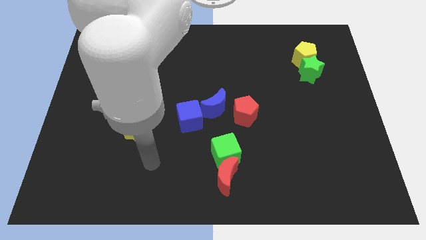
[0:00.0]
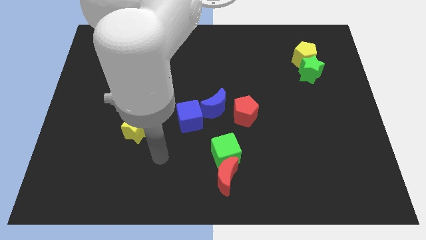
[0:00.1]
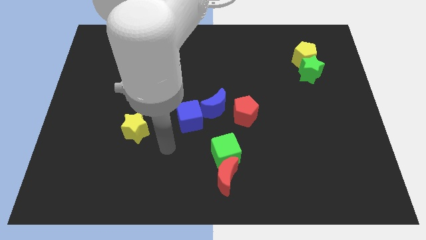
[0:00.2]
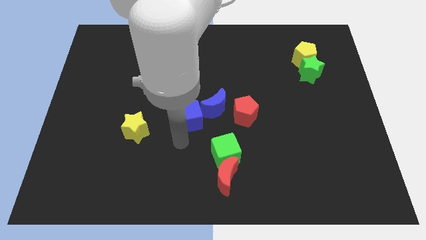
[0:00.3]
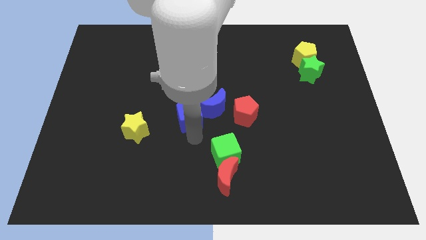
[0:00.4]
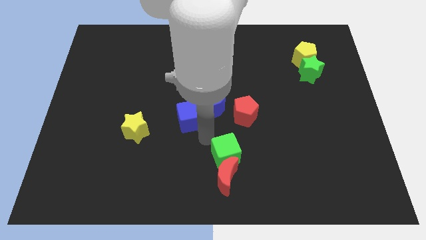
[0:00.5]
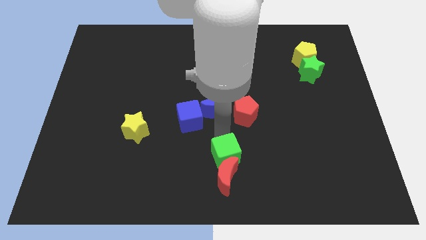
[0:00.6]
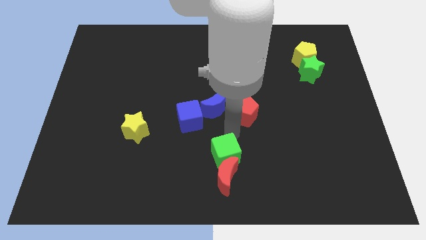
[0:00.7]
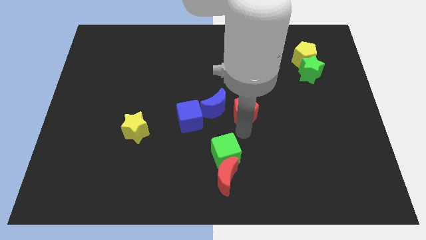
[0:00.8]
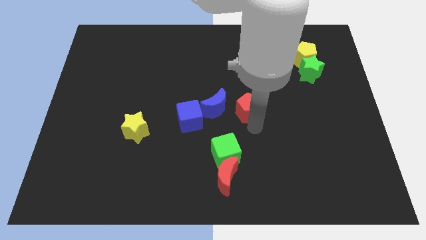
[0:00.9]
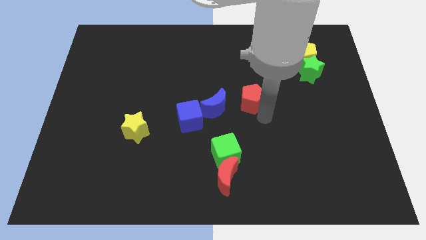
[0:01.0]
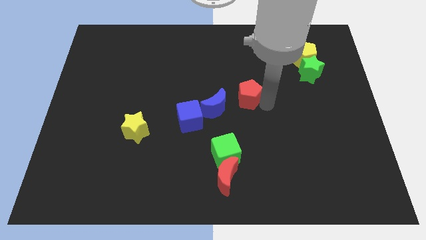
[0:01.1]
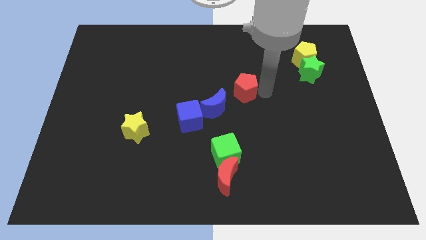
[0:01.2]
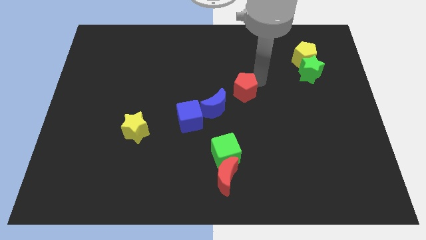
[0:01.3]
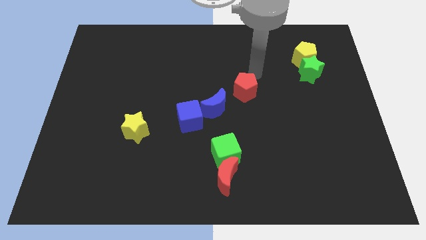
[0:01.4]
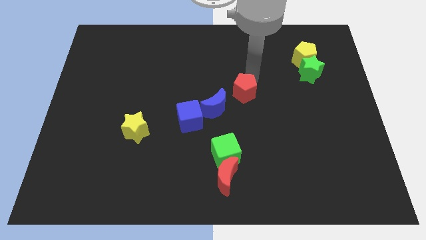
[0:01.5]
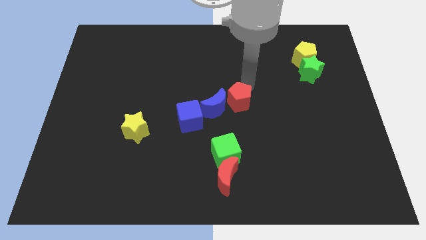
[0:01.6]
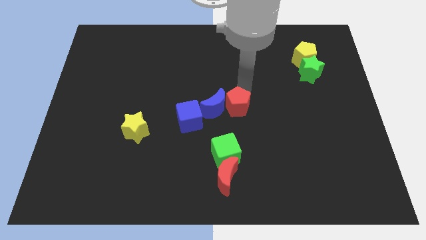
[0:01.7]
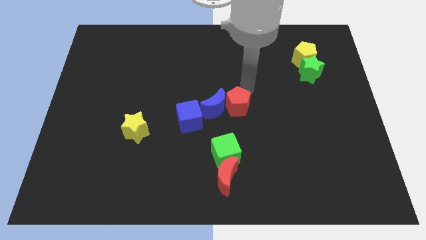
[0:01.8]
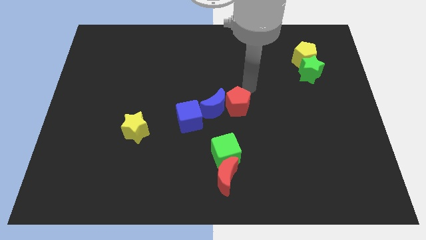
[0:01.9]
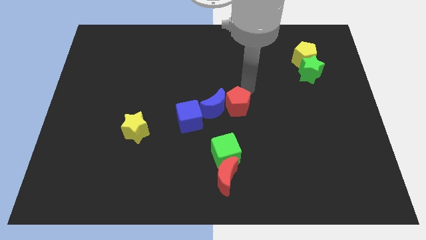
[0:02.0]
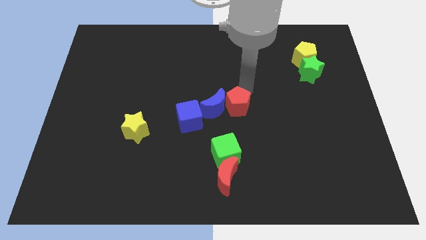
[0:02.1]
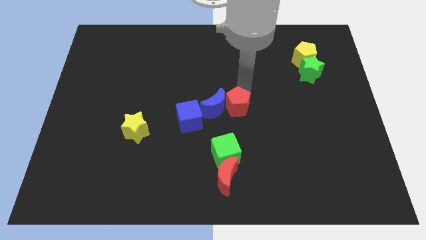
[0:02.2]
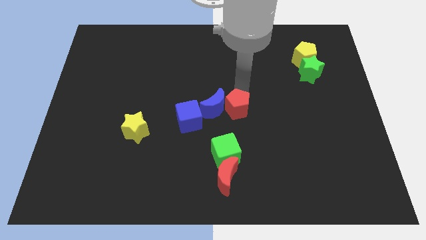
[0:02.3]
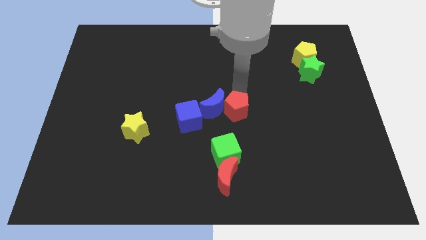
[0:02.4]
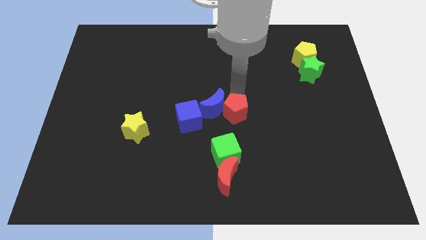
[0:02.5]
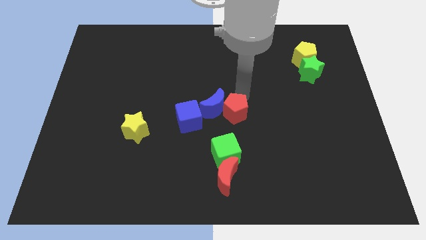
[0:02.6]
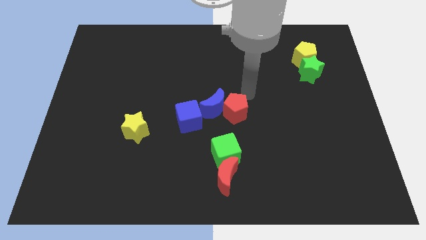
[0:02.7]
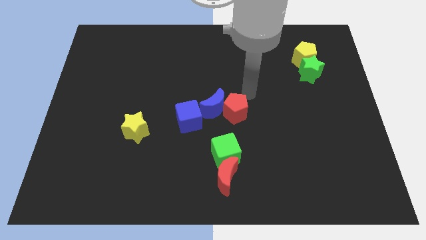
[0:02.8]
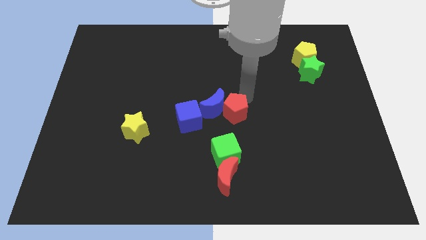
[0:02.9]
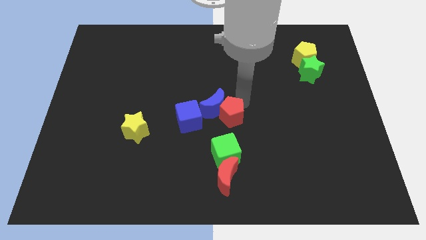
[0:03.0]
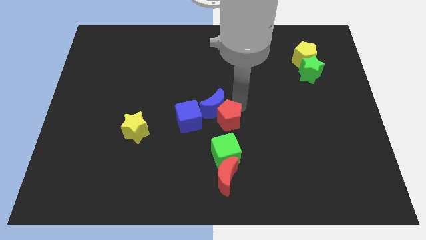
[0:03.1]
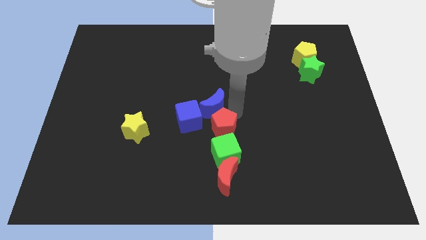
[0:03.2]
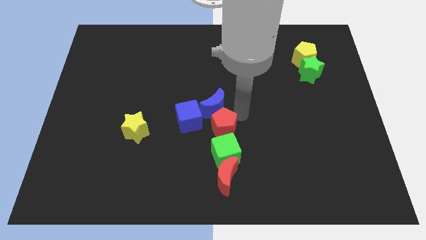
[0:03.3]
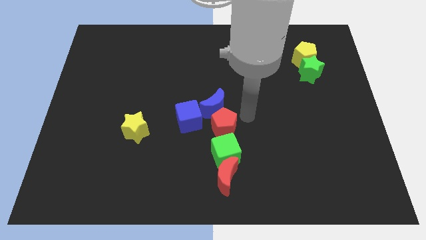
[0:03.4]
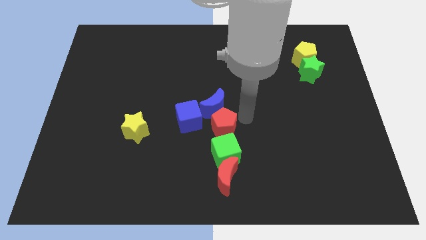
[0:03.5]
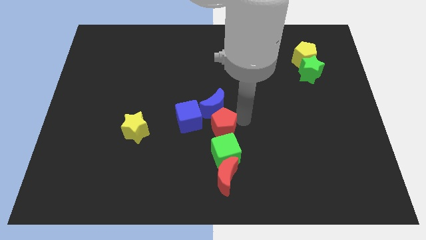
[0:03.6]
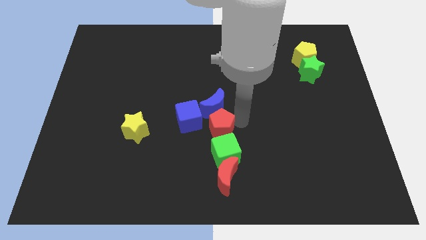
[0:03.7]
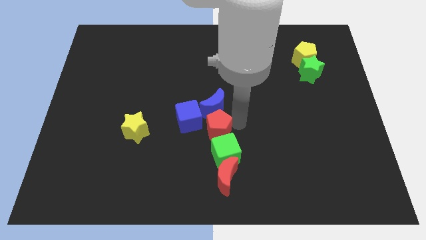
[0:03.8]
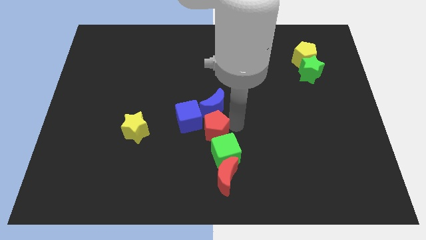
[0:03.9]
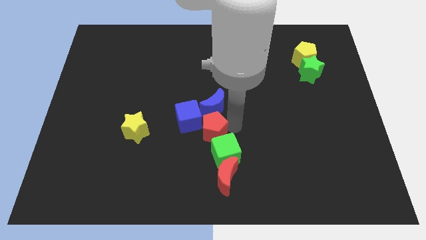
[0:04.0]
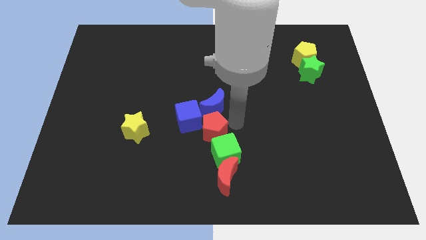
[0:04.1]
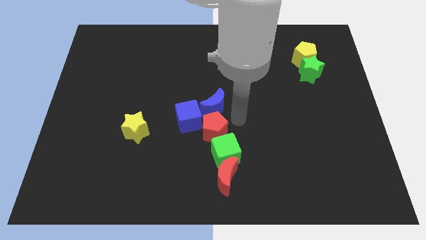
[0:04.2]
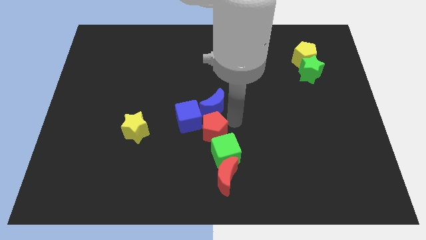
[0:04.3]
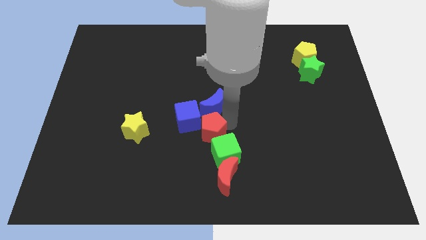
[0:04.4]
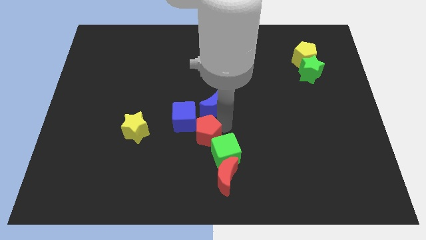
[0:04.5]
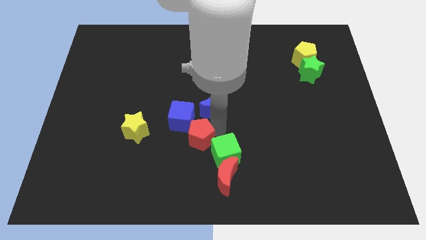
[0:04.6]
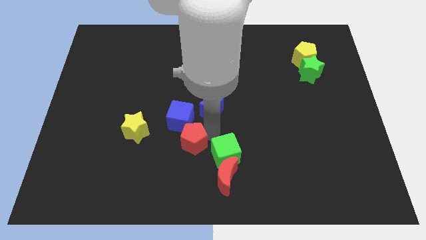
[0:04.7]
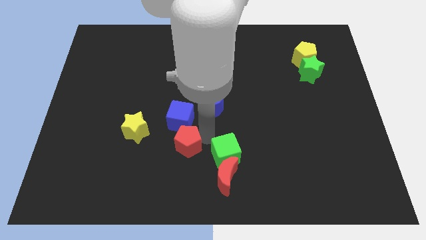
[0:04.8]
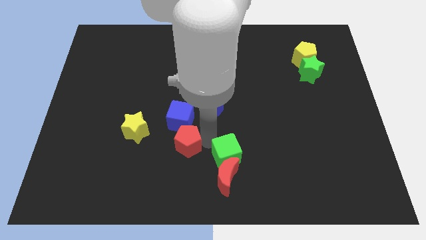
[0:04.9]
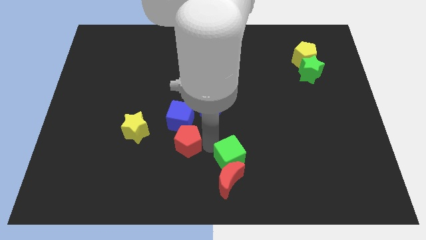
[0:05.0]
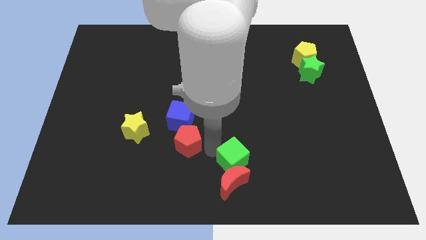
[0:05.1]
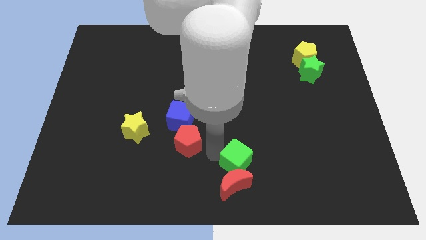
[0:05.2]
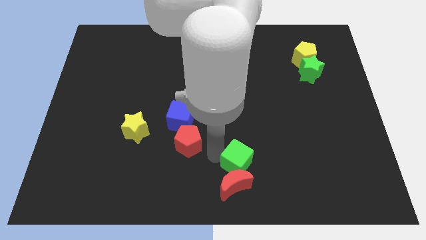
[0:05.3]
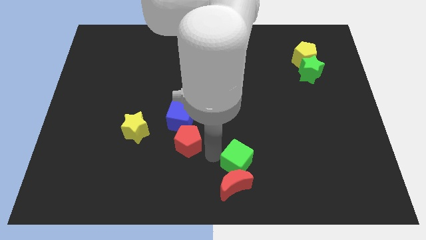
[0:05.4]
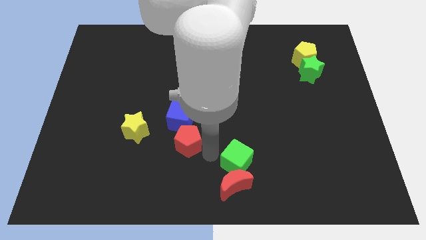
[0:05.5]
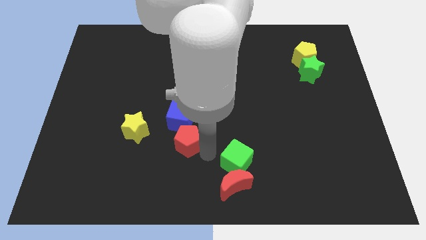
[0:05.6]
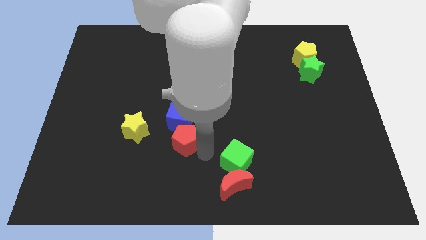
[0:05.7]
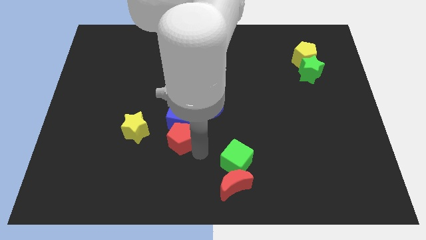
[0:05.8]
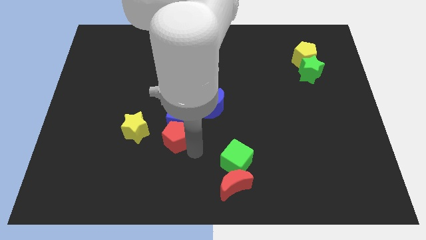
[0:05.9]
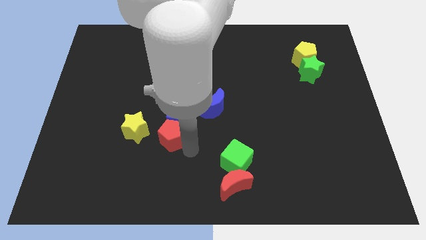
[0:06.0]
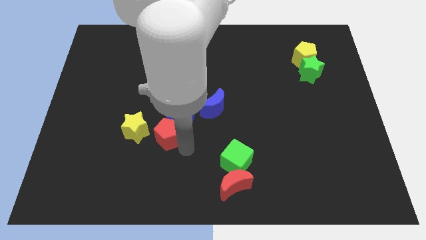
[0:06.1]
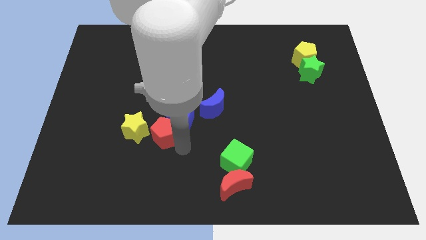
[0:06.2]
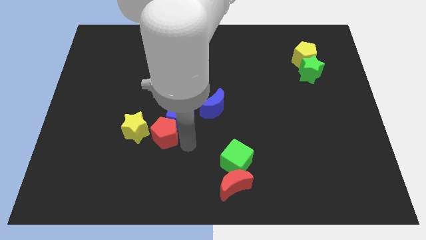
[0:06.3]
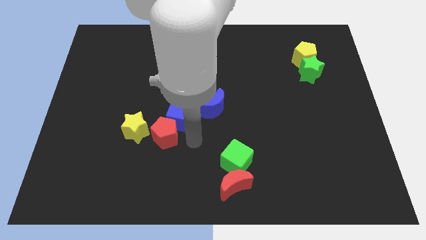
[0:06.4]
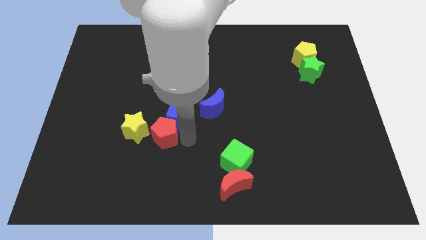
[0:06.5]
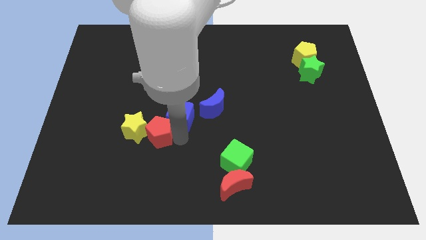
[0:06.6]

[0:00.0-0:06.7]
push the red pentagon to the yellow star

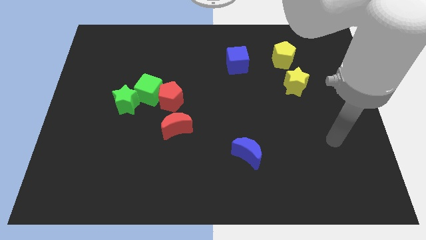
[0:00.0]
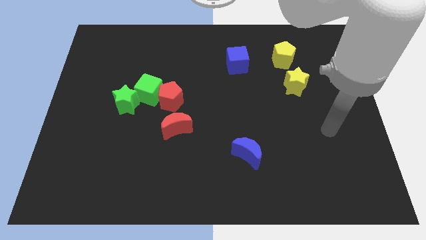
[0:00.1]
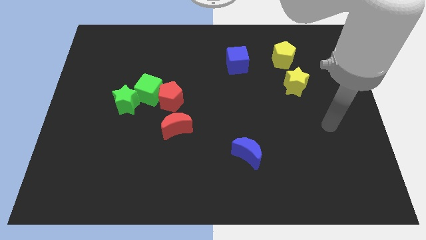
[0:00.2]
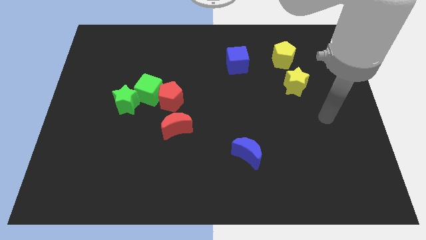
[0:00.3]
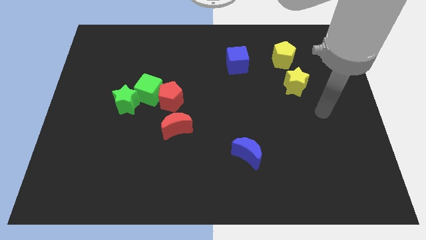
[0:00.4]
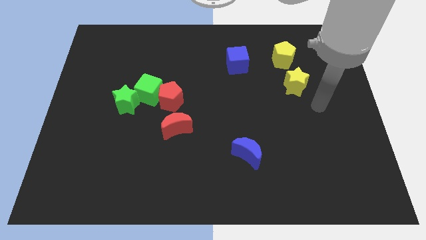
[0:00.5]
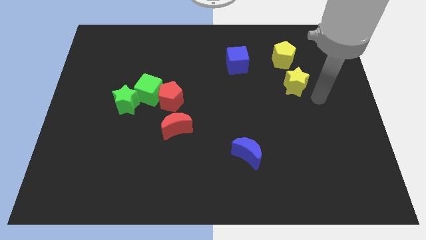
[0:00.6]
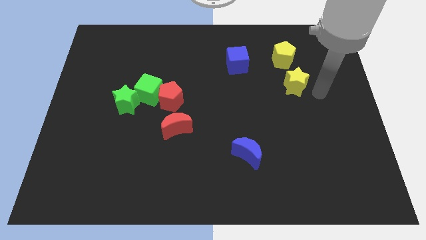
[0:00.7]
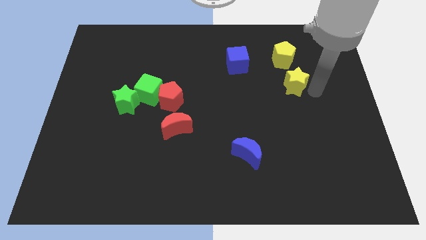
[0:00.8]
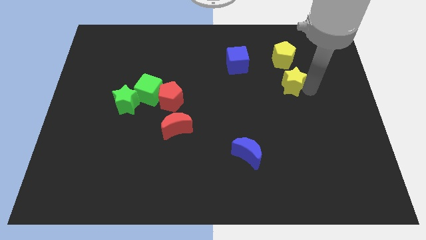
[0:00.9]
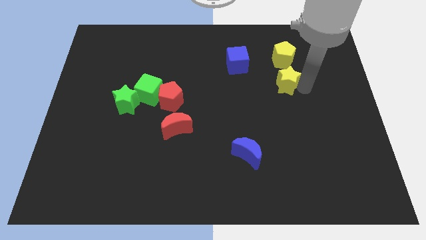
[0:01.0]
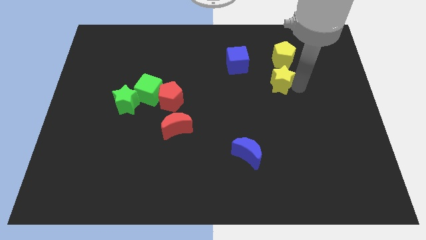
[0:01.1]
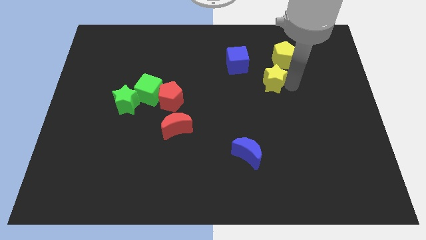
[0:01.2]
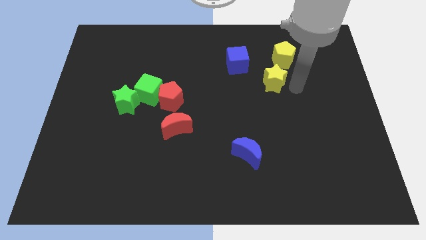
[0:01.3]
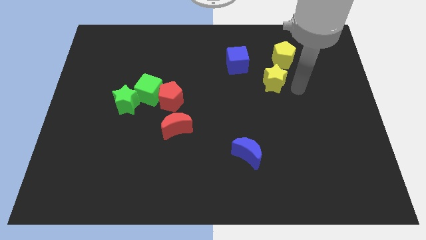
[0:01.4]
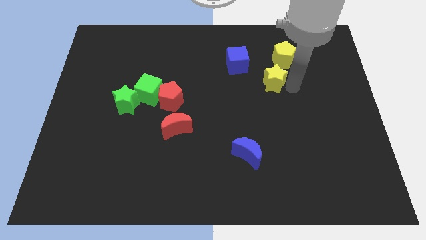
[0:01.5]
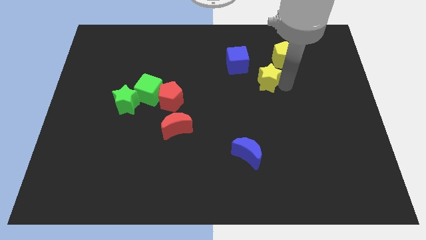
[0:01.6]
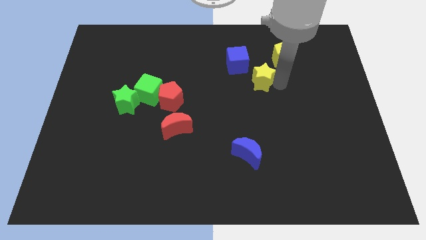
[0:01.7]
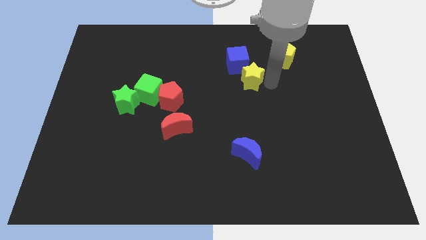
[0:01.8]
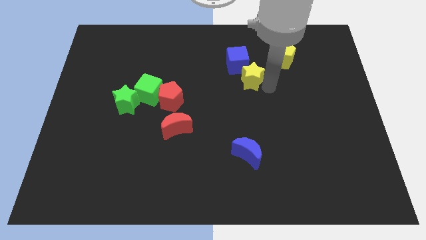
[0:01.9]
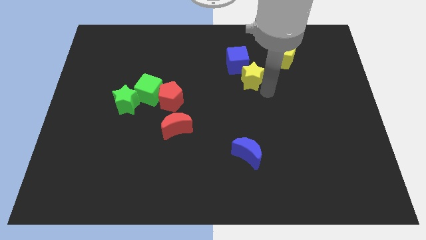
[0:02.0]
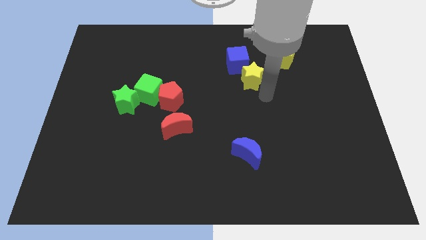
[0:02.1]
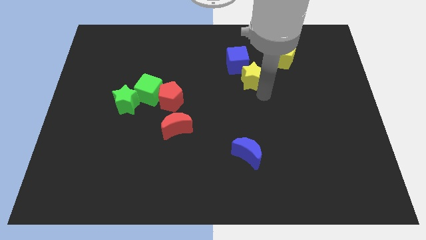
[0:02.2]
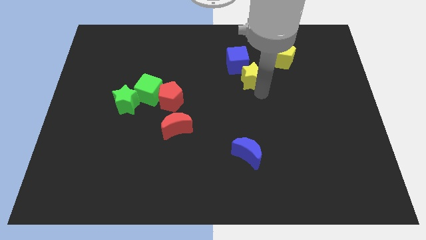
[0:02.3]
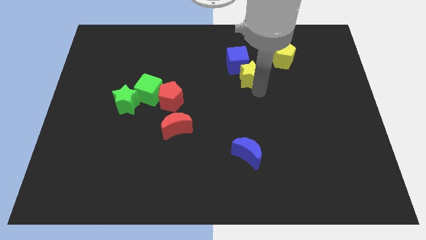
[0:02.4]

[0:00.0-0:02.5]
put the yellow star towards the blue cube
